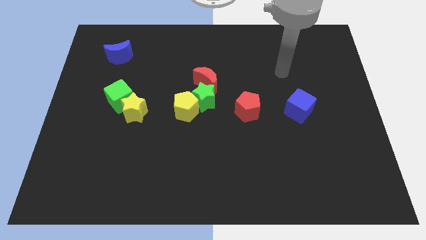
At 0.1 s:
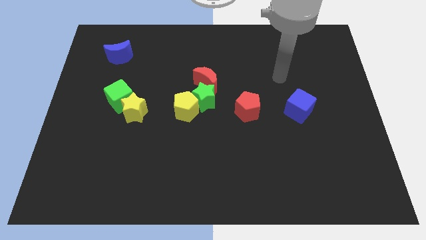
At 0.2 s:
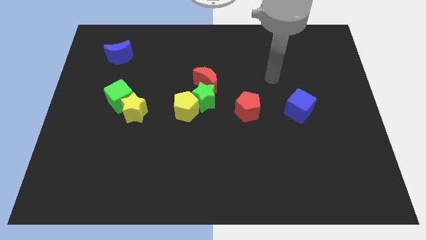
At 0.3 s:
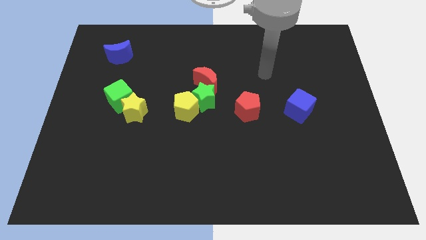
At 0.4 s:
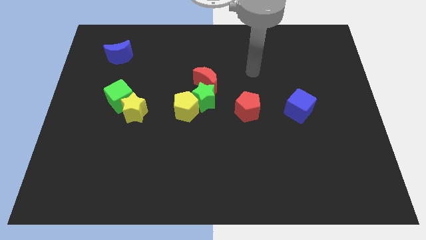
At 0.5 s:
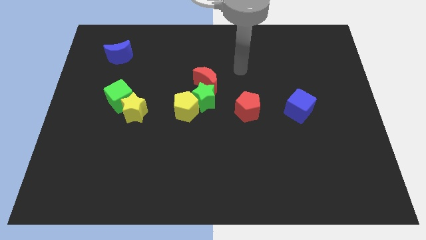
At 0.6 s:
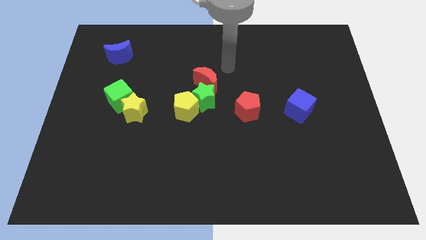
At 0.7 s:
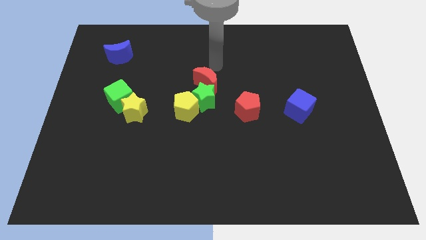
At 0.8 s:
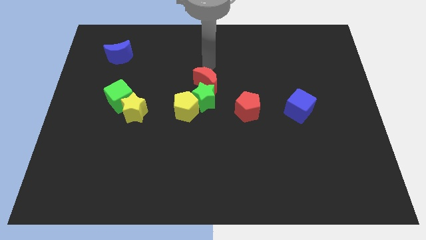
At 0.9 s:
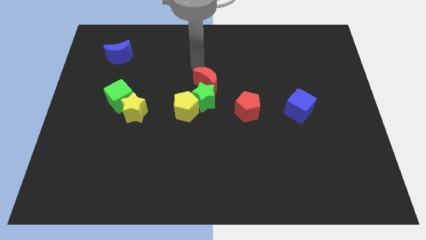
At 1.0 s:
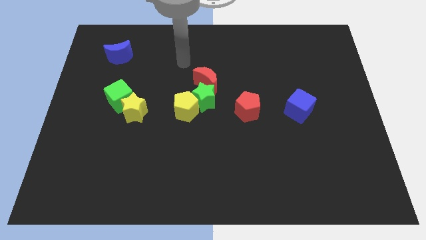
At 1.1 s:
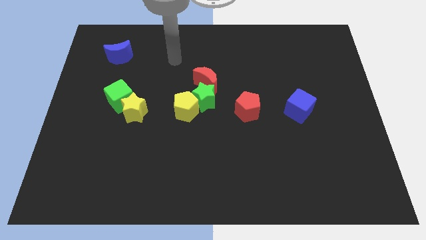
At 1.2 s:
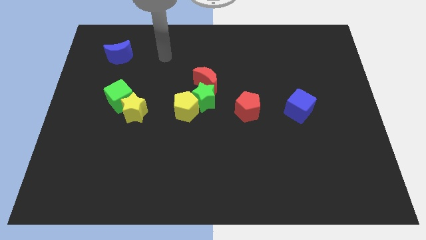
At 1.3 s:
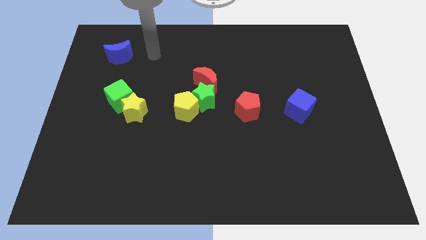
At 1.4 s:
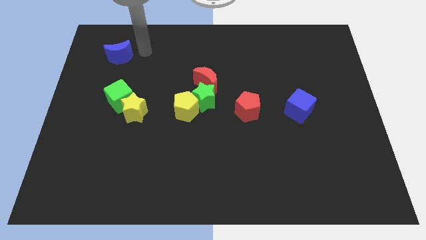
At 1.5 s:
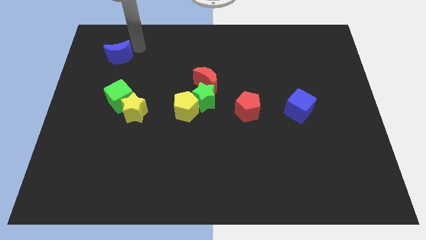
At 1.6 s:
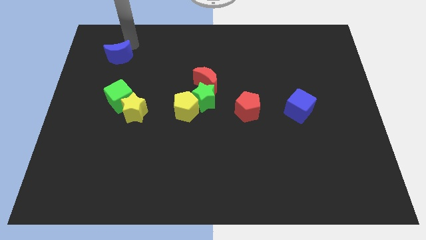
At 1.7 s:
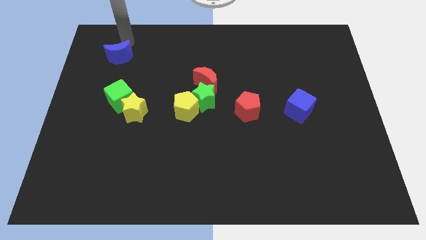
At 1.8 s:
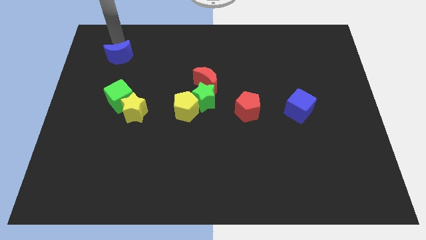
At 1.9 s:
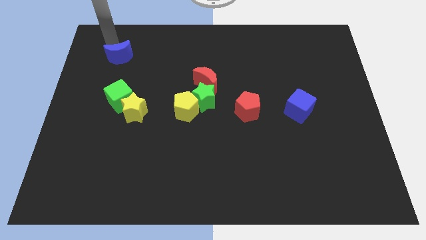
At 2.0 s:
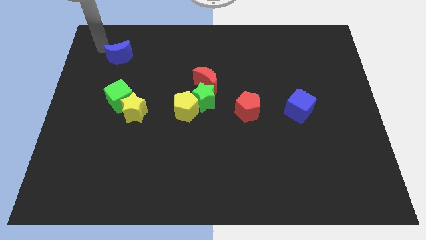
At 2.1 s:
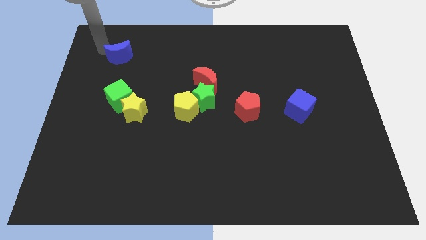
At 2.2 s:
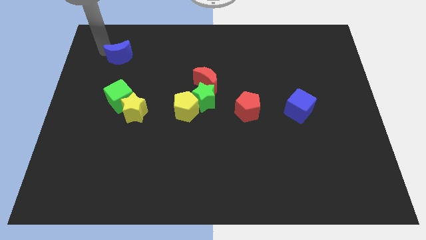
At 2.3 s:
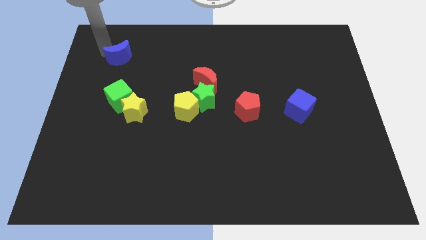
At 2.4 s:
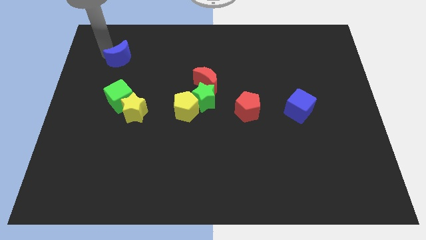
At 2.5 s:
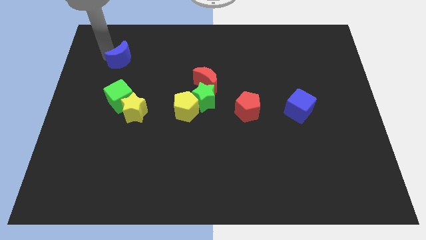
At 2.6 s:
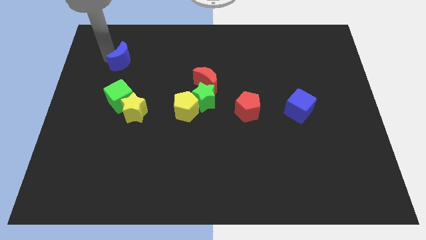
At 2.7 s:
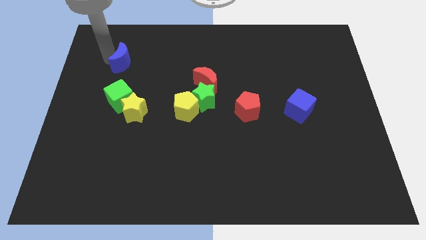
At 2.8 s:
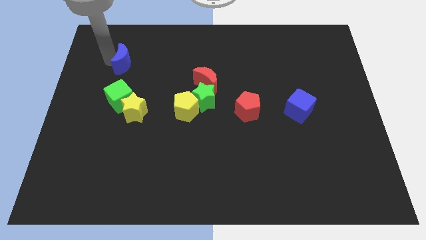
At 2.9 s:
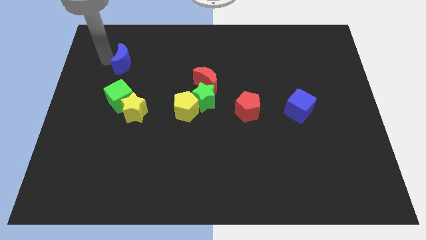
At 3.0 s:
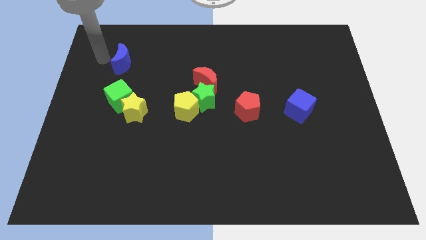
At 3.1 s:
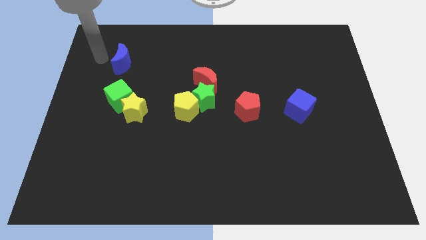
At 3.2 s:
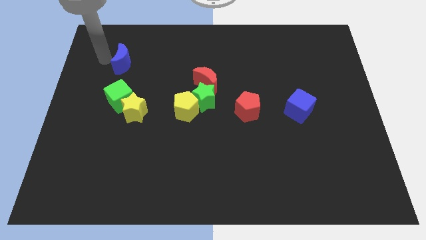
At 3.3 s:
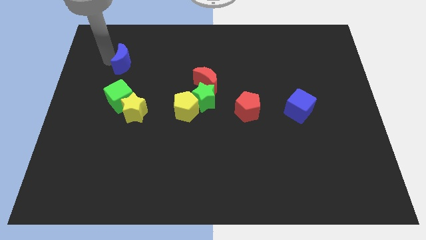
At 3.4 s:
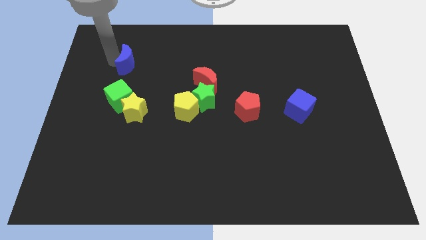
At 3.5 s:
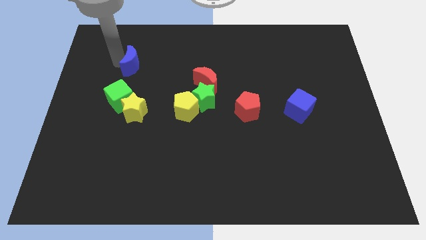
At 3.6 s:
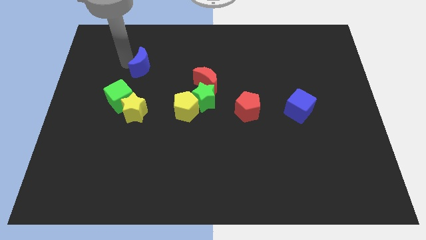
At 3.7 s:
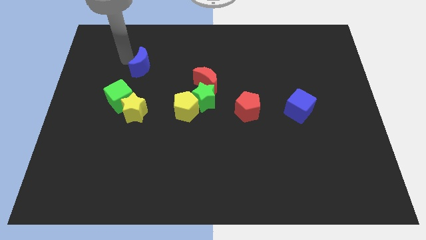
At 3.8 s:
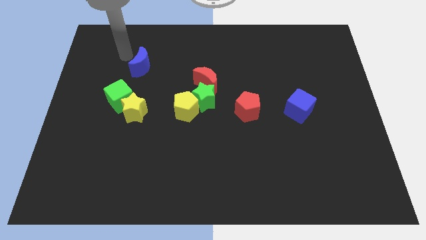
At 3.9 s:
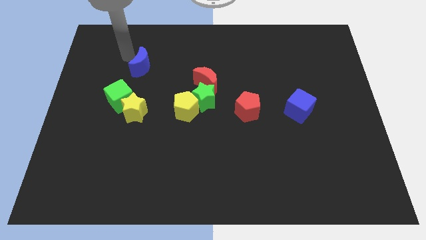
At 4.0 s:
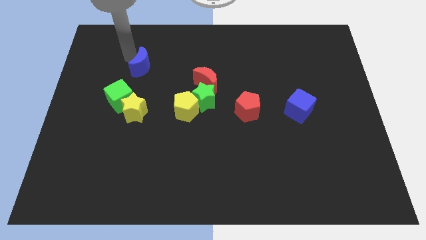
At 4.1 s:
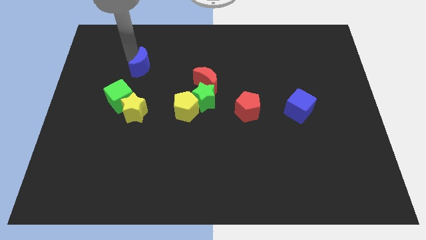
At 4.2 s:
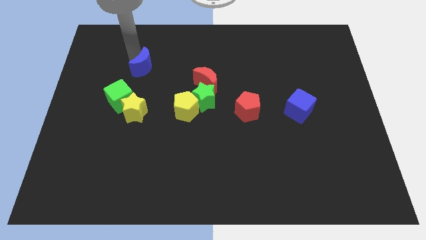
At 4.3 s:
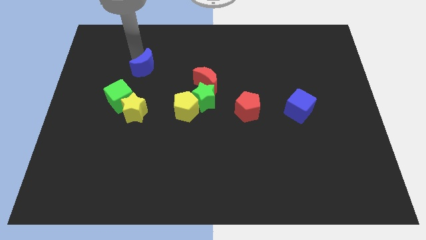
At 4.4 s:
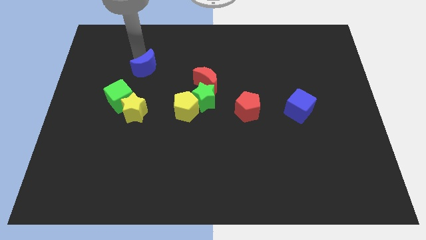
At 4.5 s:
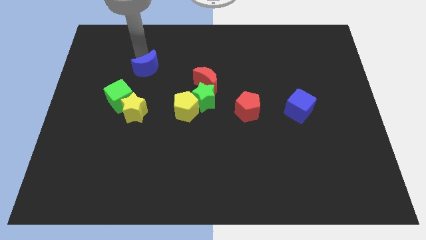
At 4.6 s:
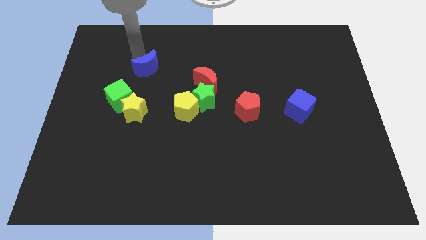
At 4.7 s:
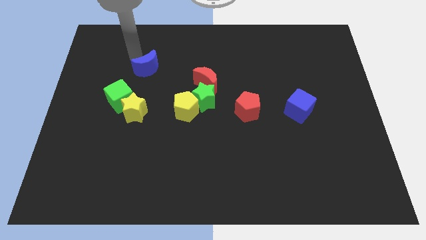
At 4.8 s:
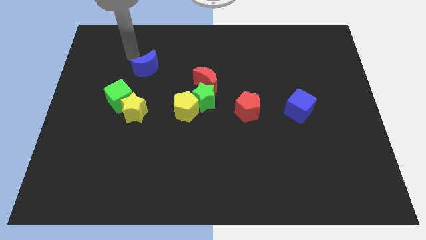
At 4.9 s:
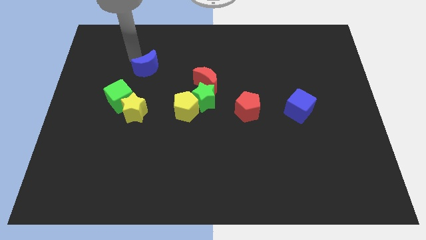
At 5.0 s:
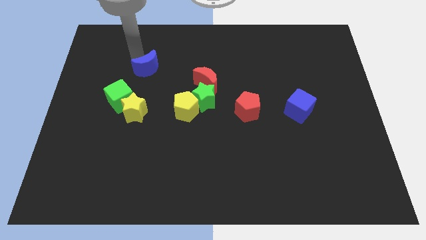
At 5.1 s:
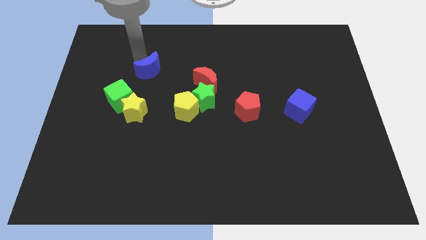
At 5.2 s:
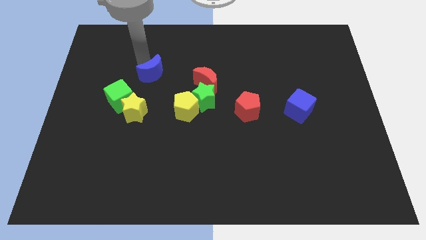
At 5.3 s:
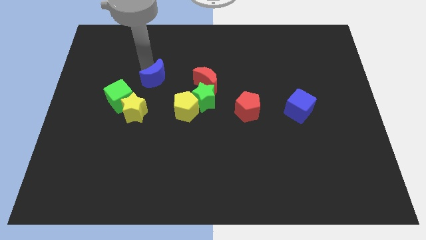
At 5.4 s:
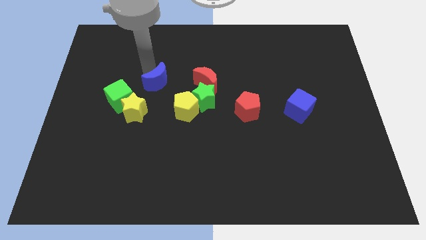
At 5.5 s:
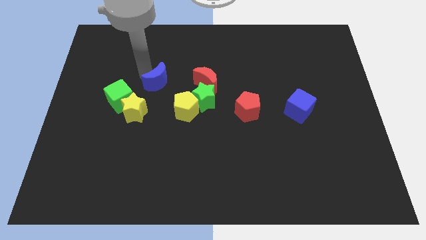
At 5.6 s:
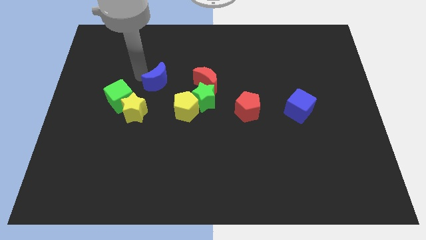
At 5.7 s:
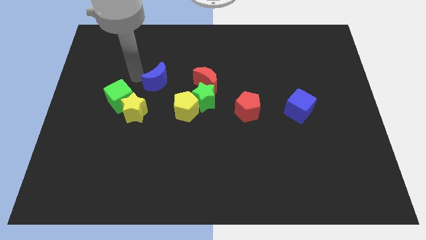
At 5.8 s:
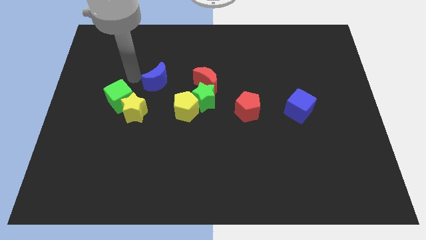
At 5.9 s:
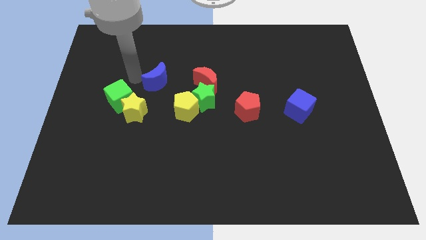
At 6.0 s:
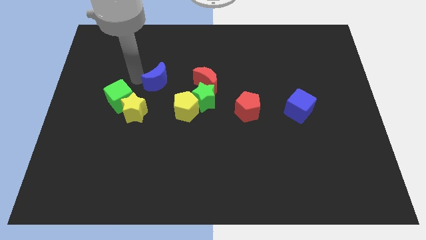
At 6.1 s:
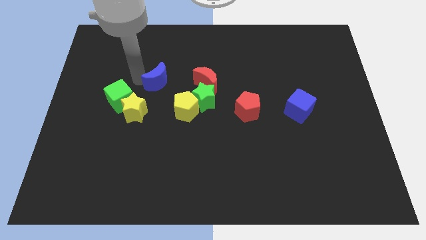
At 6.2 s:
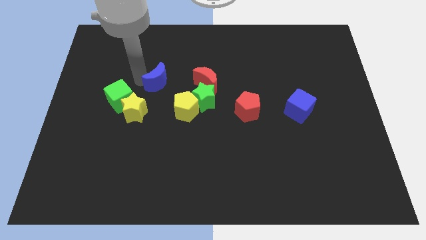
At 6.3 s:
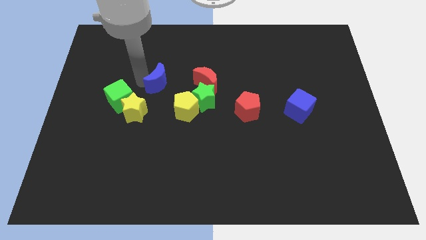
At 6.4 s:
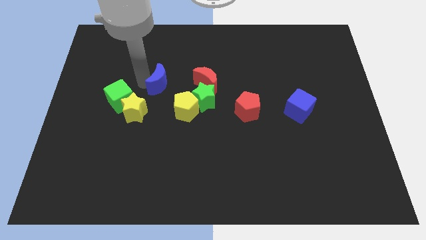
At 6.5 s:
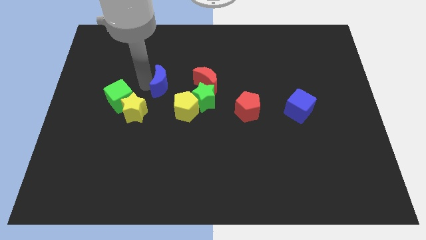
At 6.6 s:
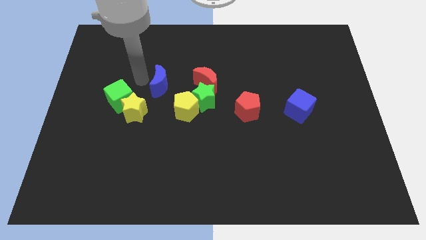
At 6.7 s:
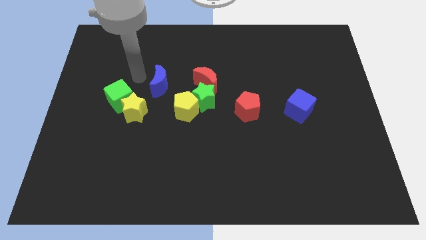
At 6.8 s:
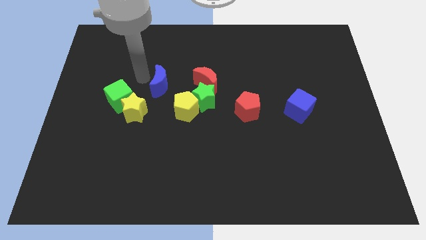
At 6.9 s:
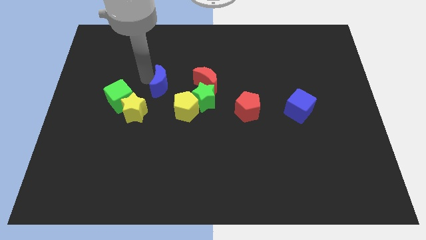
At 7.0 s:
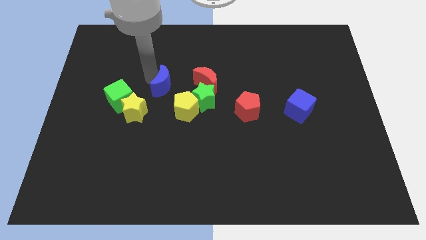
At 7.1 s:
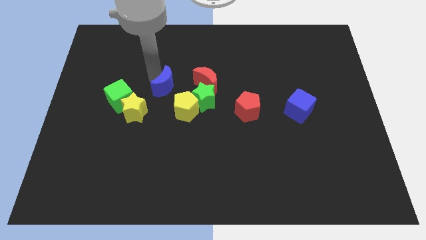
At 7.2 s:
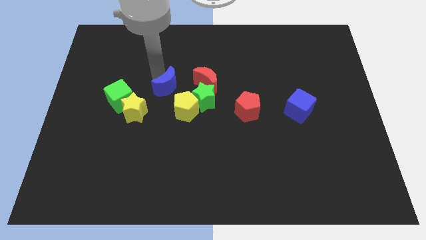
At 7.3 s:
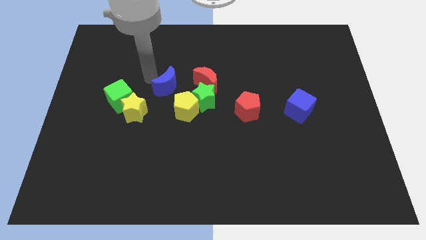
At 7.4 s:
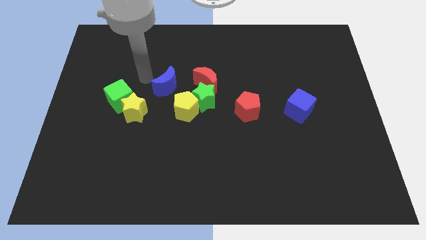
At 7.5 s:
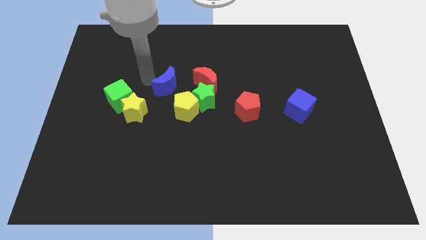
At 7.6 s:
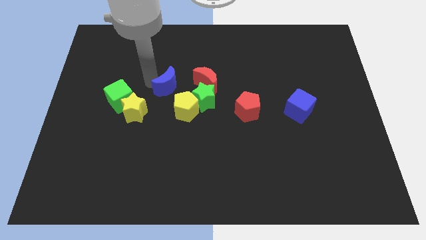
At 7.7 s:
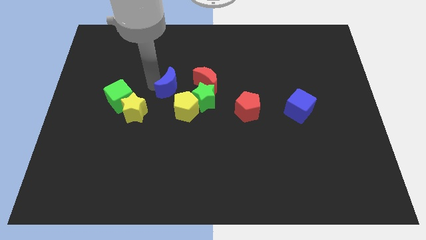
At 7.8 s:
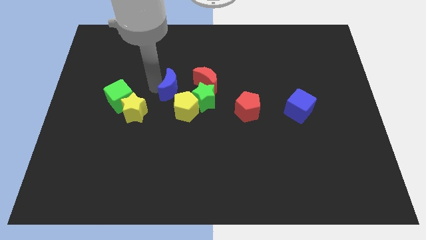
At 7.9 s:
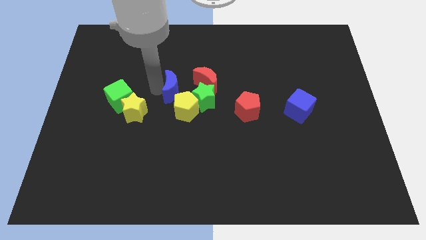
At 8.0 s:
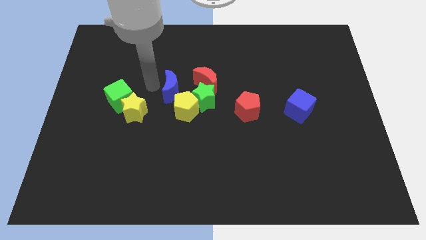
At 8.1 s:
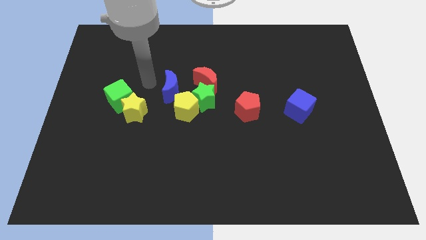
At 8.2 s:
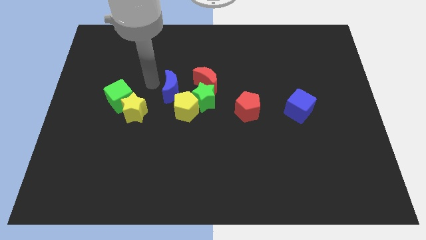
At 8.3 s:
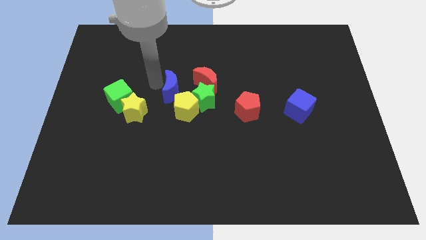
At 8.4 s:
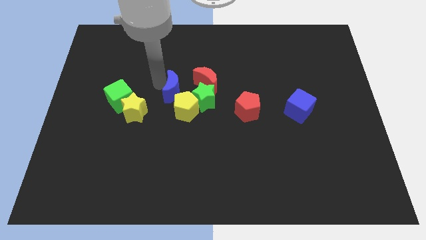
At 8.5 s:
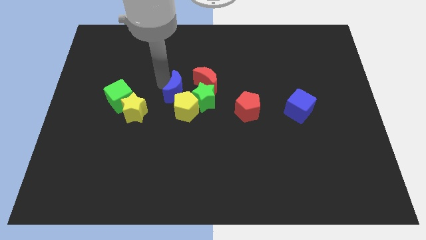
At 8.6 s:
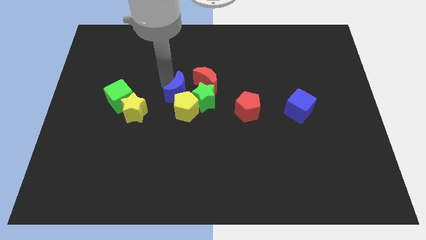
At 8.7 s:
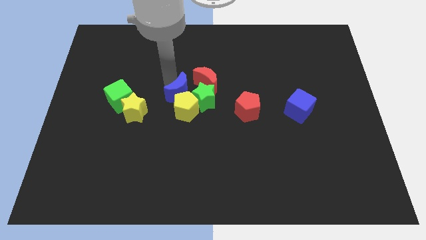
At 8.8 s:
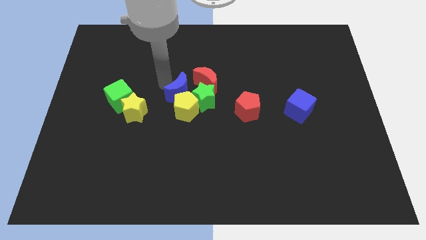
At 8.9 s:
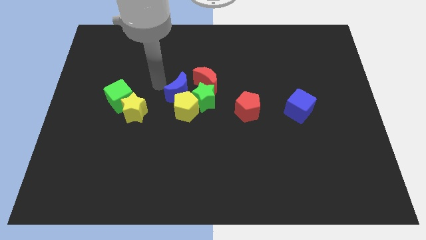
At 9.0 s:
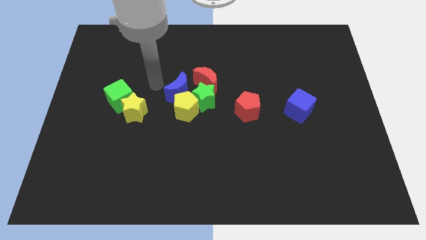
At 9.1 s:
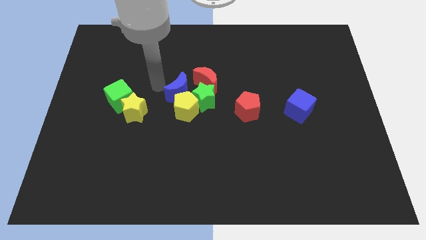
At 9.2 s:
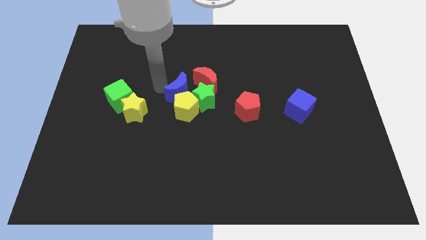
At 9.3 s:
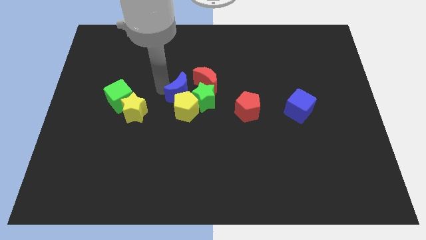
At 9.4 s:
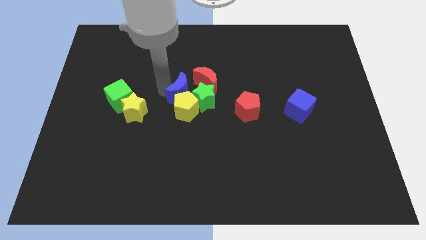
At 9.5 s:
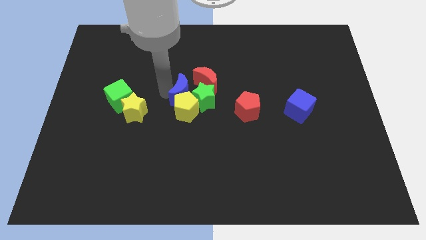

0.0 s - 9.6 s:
slide the blue moon towards the green star
